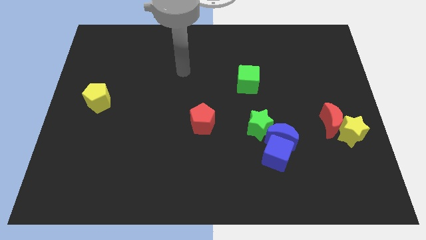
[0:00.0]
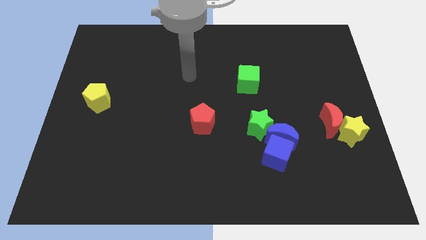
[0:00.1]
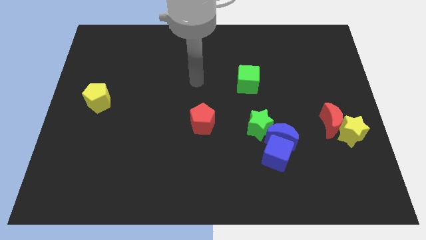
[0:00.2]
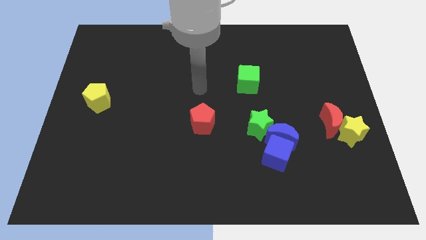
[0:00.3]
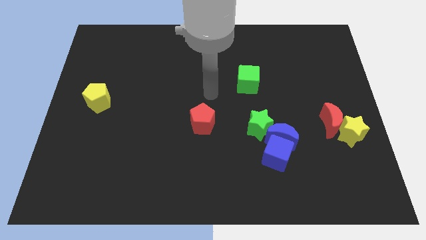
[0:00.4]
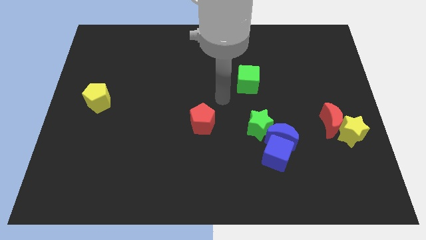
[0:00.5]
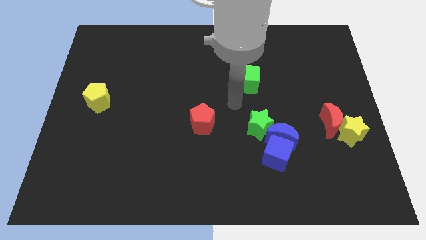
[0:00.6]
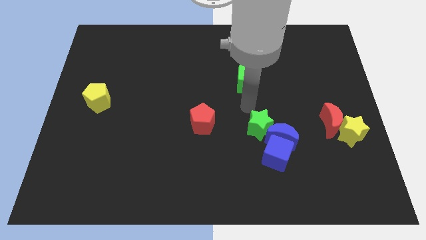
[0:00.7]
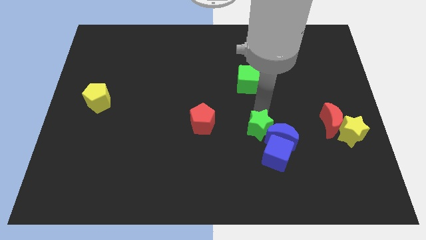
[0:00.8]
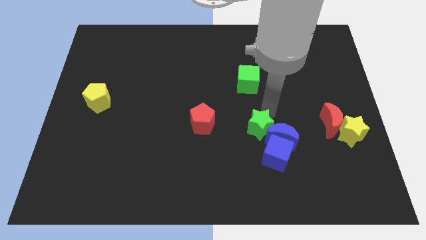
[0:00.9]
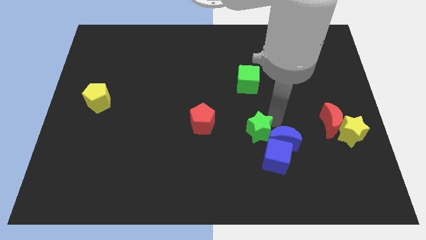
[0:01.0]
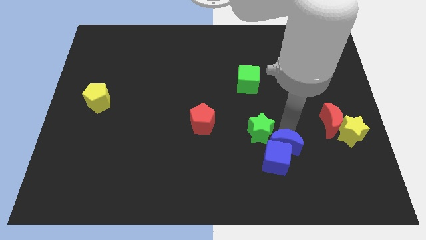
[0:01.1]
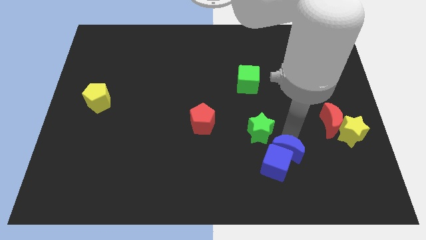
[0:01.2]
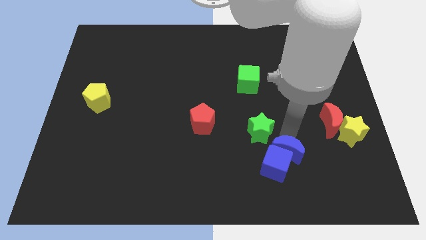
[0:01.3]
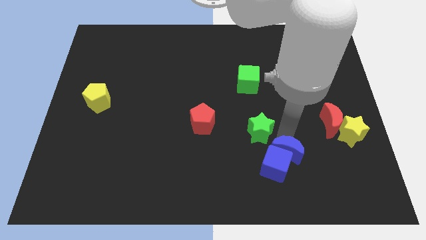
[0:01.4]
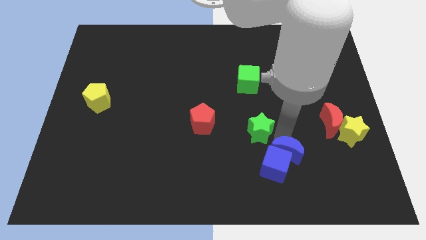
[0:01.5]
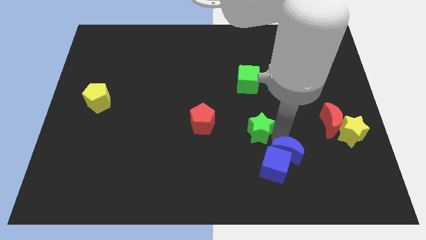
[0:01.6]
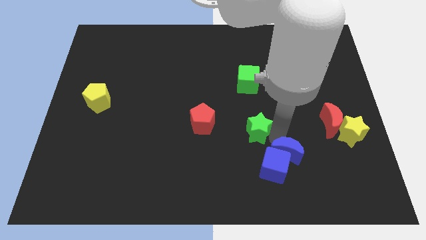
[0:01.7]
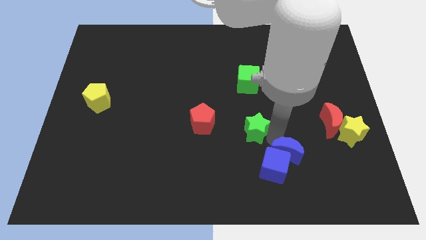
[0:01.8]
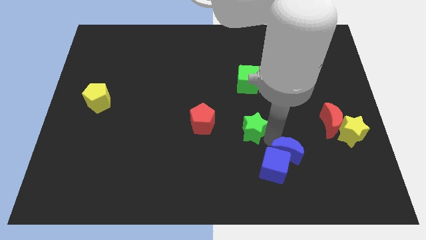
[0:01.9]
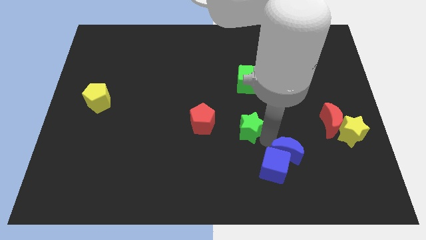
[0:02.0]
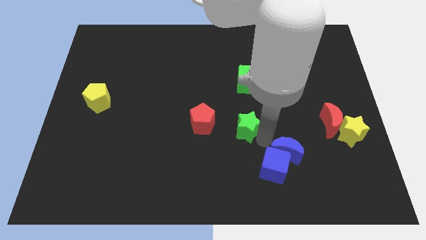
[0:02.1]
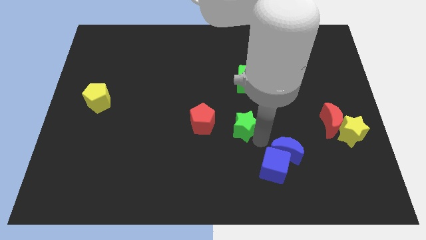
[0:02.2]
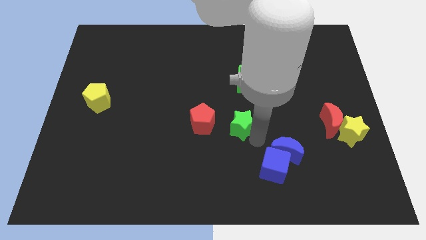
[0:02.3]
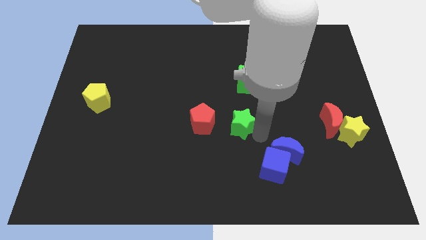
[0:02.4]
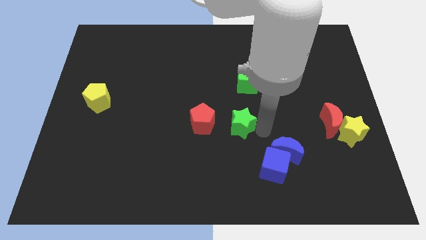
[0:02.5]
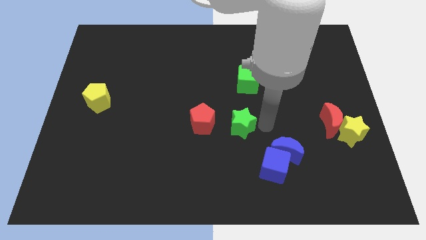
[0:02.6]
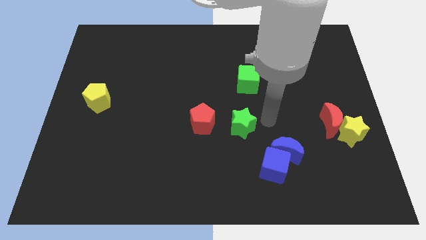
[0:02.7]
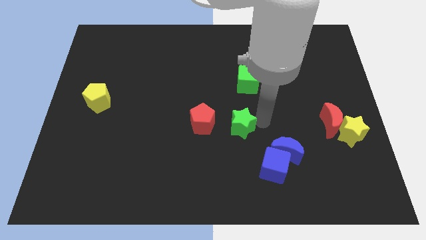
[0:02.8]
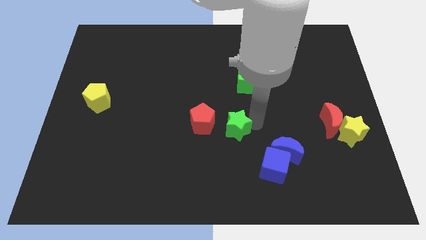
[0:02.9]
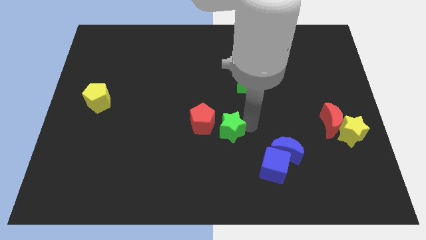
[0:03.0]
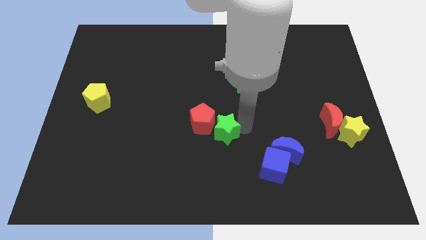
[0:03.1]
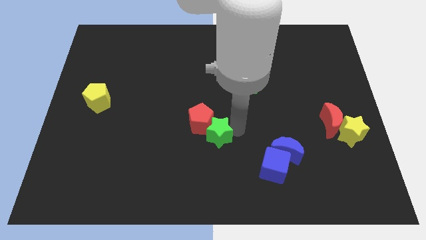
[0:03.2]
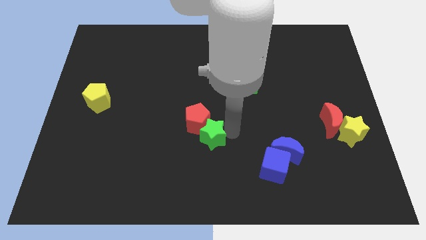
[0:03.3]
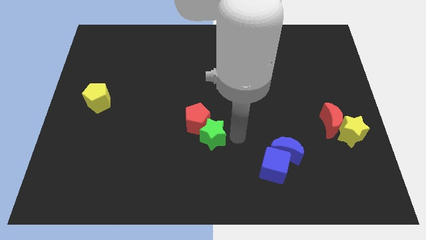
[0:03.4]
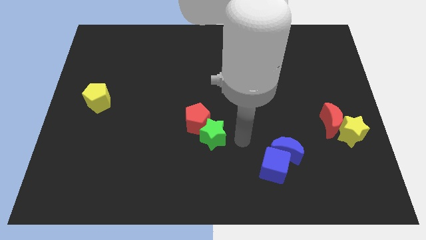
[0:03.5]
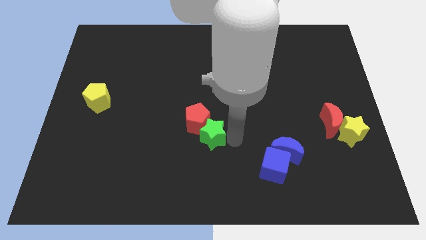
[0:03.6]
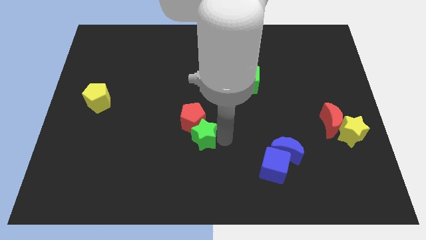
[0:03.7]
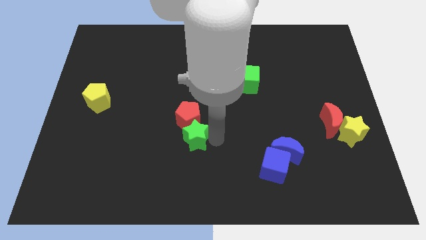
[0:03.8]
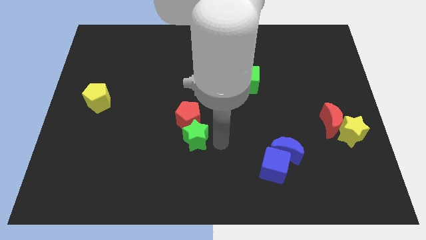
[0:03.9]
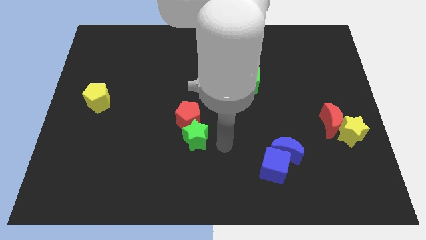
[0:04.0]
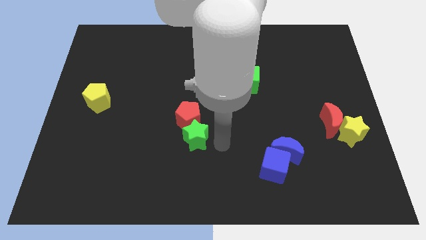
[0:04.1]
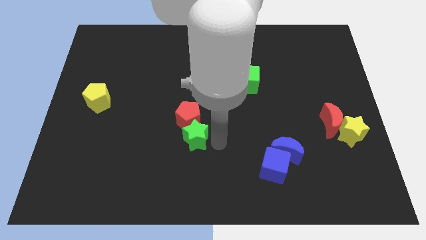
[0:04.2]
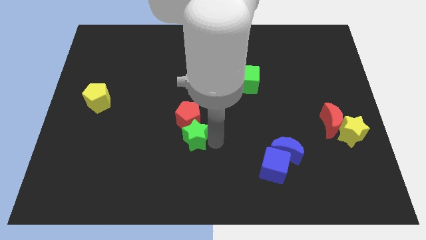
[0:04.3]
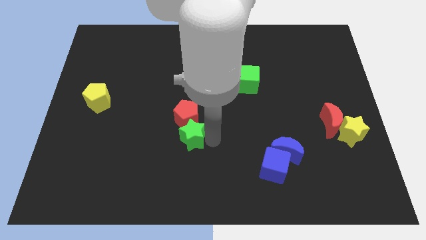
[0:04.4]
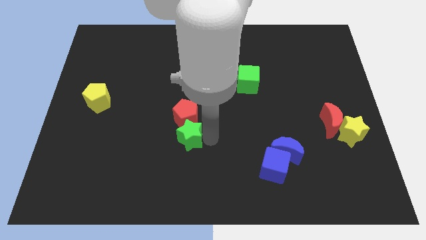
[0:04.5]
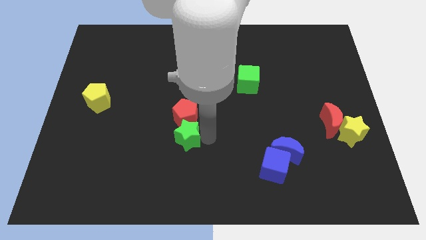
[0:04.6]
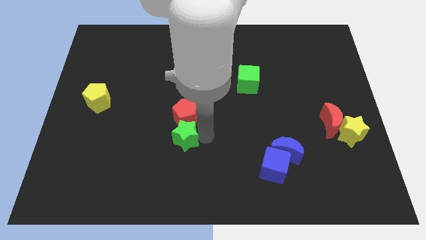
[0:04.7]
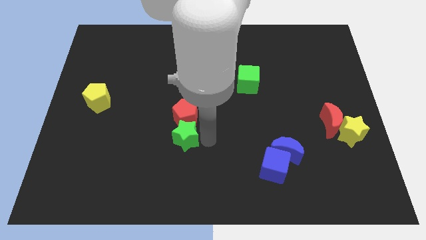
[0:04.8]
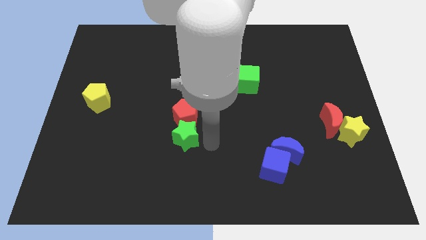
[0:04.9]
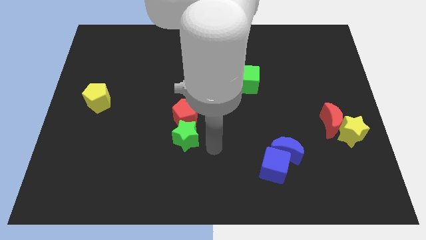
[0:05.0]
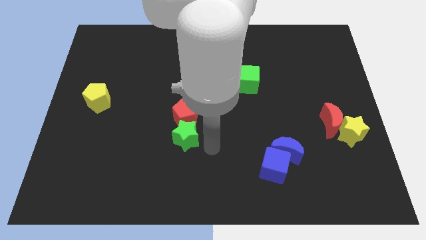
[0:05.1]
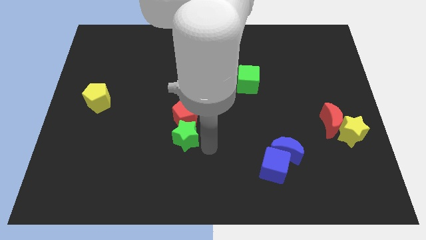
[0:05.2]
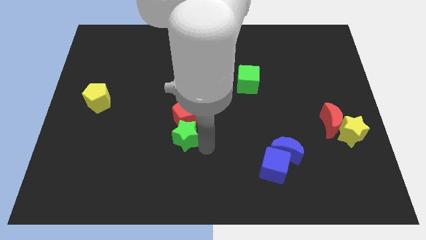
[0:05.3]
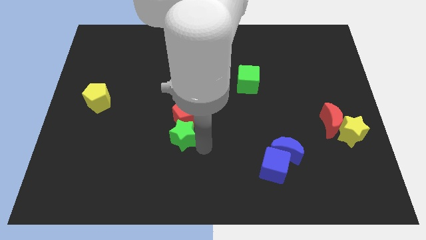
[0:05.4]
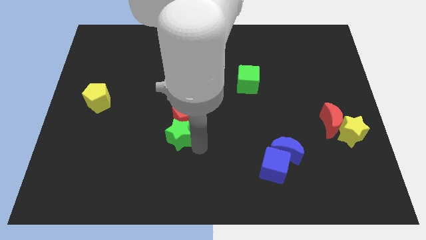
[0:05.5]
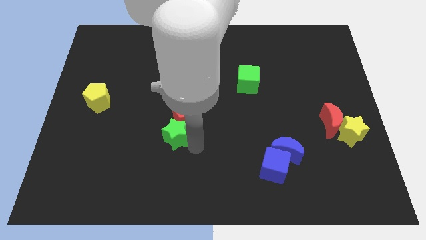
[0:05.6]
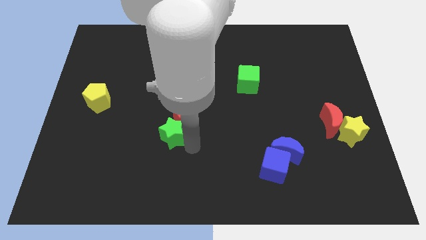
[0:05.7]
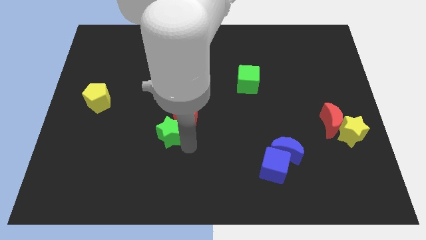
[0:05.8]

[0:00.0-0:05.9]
move the green star to the left

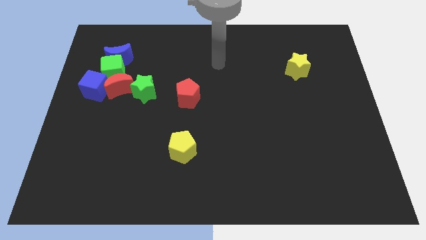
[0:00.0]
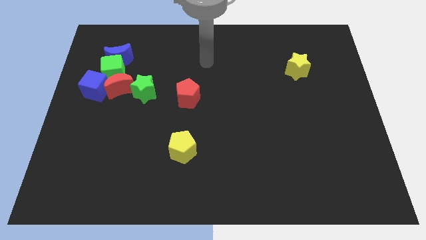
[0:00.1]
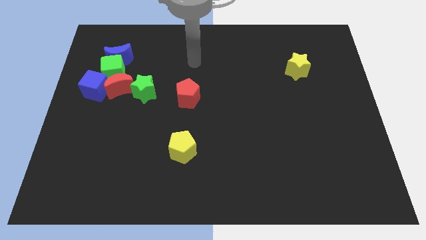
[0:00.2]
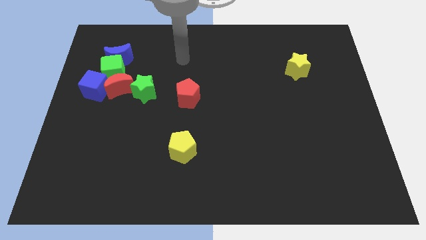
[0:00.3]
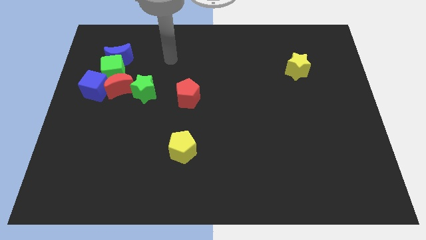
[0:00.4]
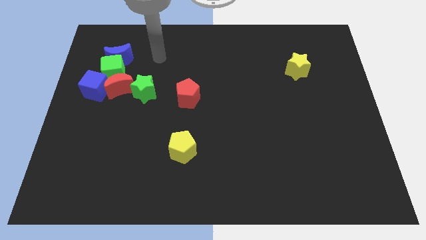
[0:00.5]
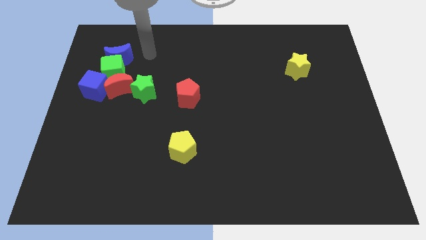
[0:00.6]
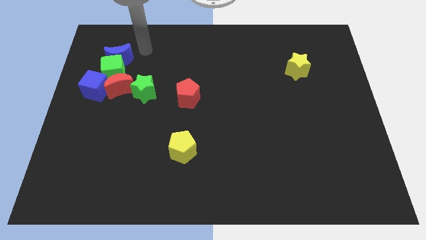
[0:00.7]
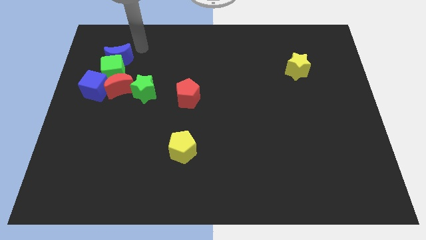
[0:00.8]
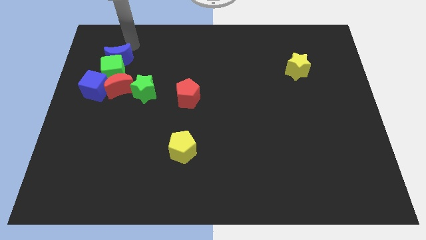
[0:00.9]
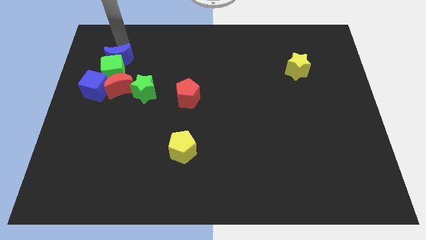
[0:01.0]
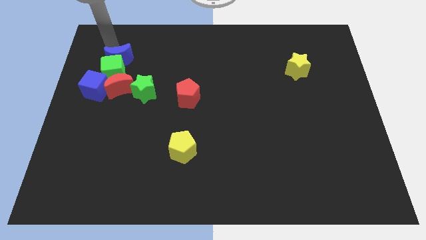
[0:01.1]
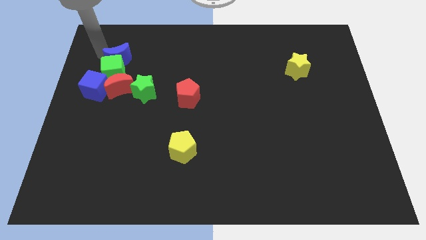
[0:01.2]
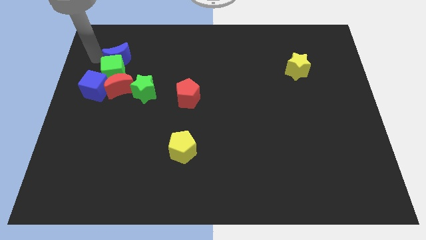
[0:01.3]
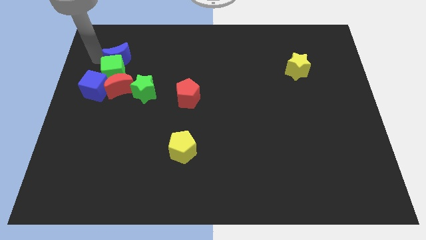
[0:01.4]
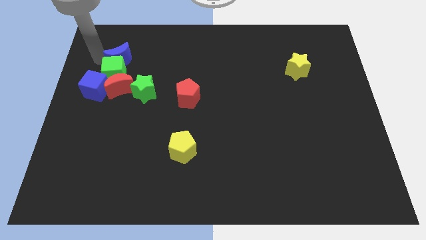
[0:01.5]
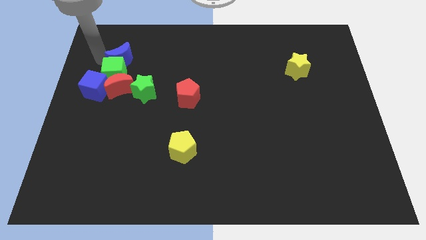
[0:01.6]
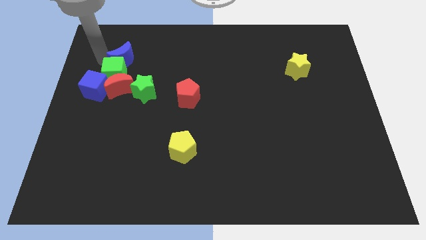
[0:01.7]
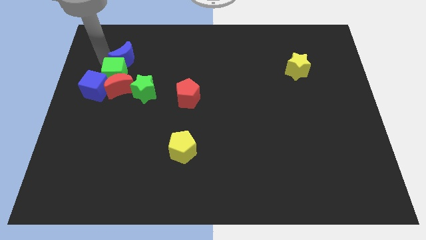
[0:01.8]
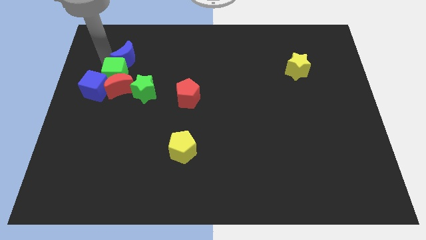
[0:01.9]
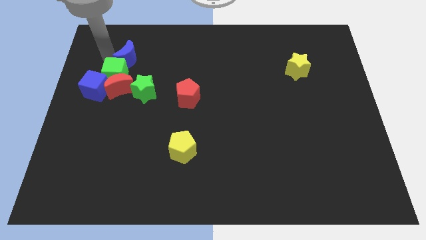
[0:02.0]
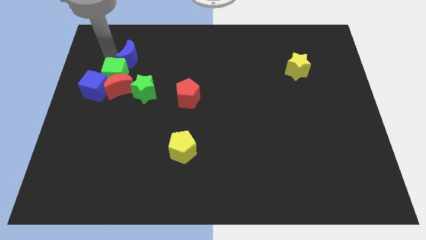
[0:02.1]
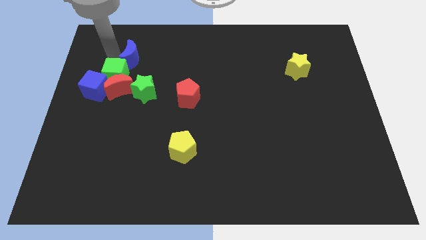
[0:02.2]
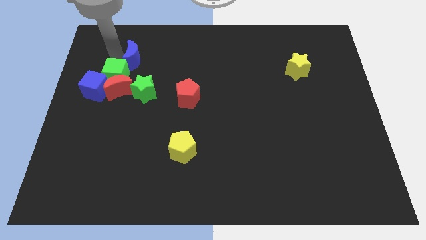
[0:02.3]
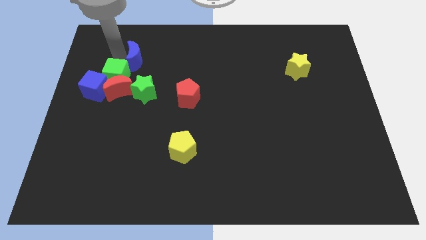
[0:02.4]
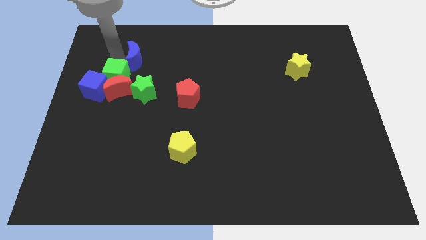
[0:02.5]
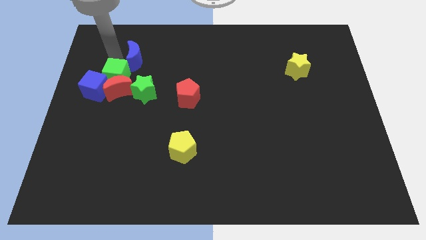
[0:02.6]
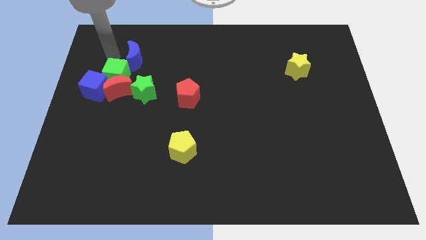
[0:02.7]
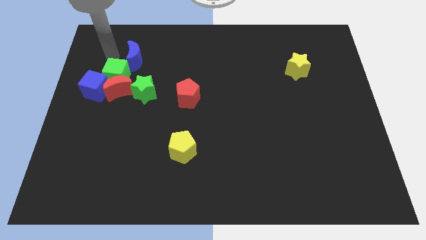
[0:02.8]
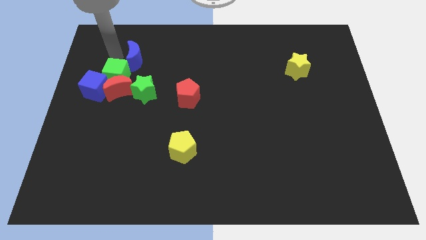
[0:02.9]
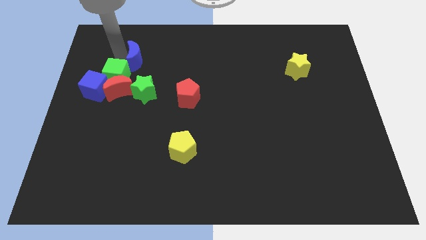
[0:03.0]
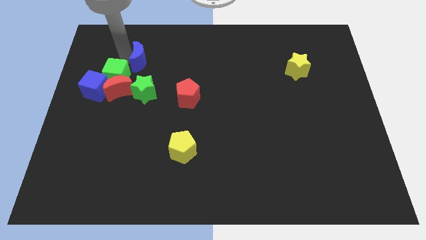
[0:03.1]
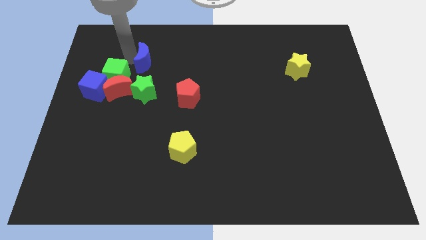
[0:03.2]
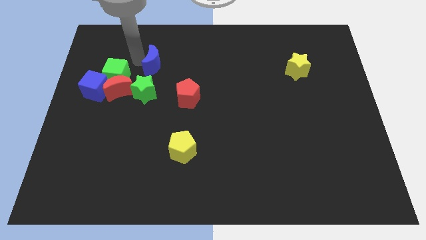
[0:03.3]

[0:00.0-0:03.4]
move the blue moon slightly right
